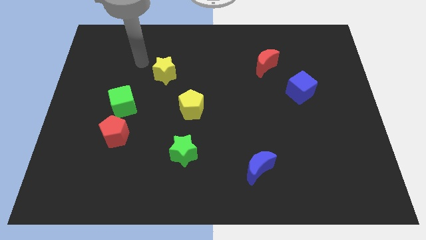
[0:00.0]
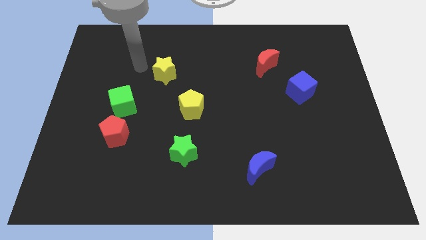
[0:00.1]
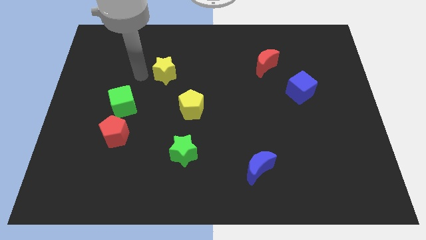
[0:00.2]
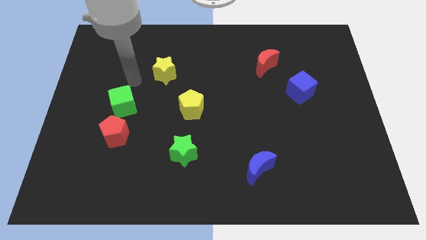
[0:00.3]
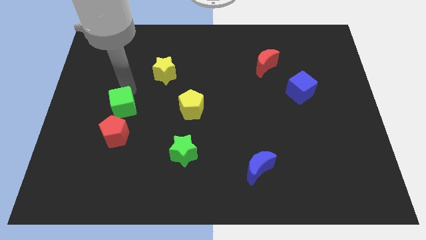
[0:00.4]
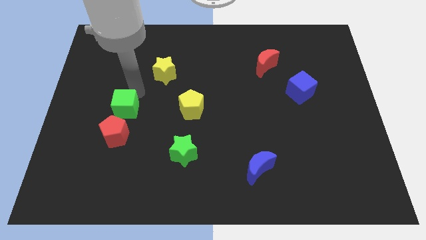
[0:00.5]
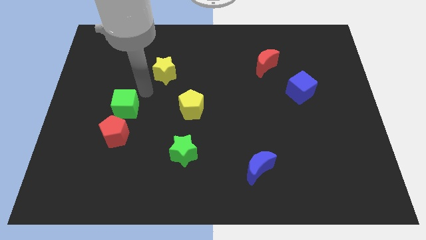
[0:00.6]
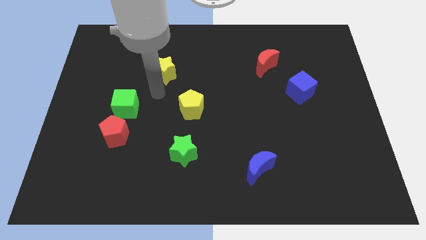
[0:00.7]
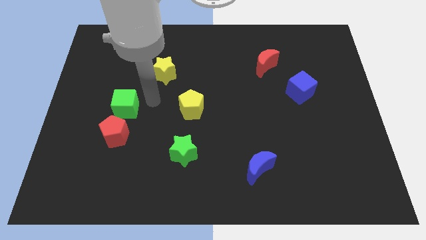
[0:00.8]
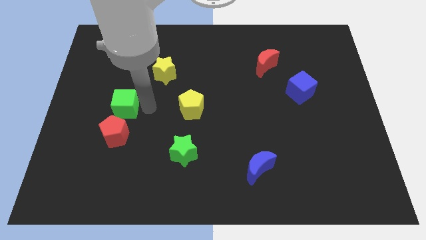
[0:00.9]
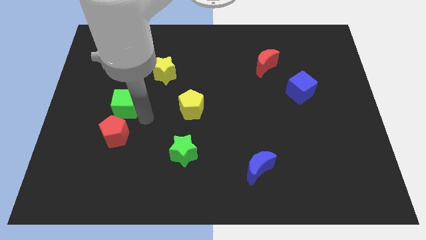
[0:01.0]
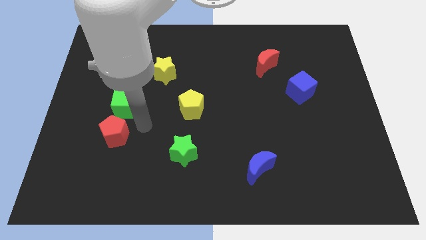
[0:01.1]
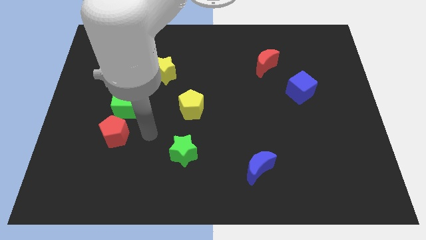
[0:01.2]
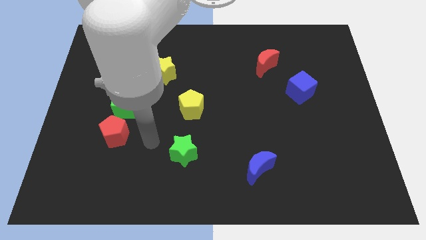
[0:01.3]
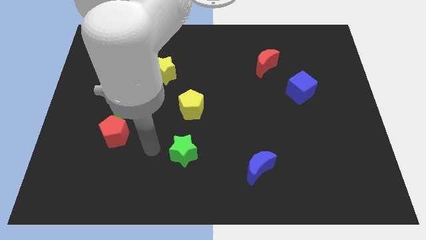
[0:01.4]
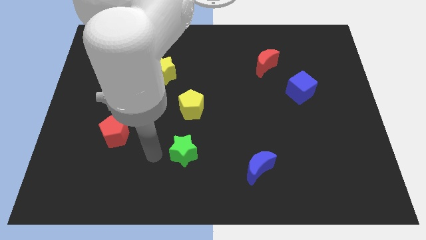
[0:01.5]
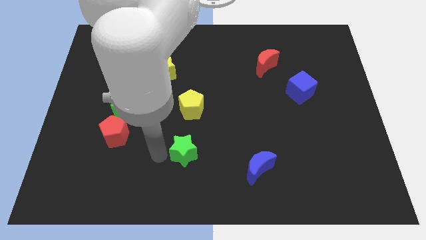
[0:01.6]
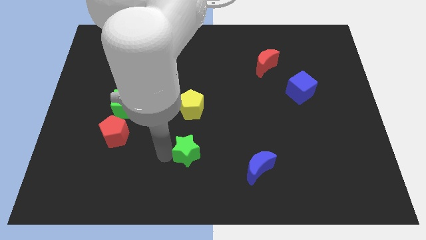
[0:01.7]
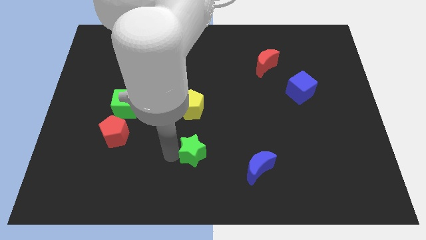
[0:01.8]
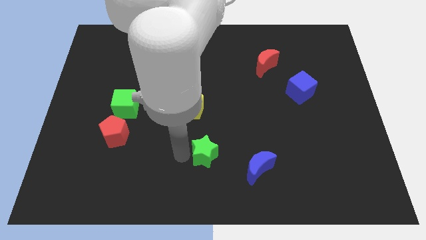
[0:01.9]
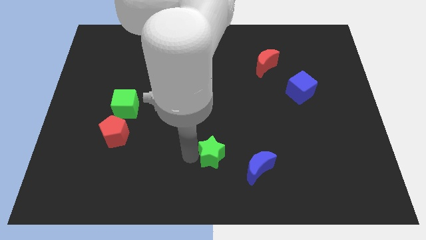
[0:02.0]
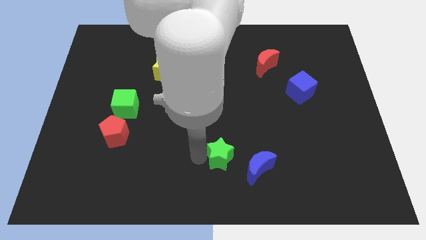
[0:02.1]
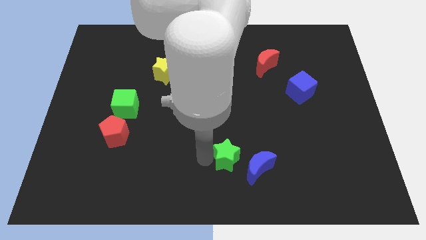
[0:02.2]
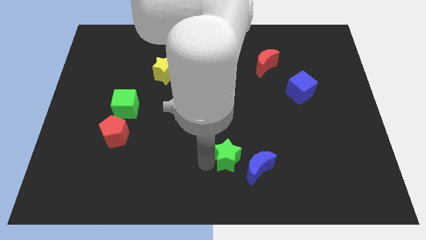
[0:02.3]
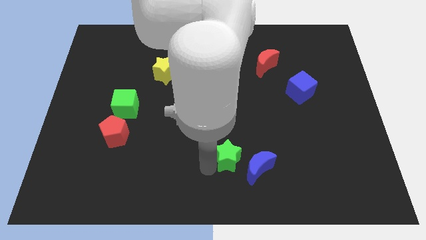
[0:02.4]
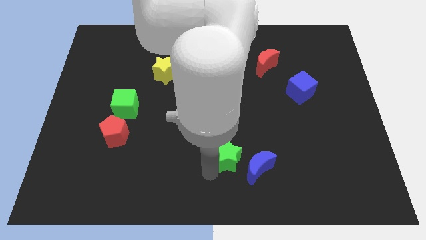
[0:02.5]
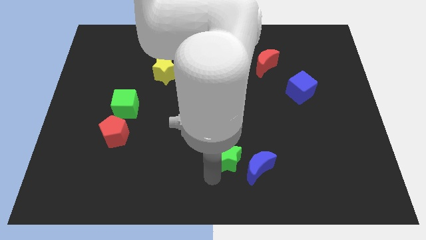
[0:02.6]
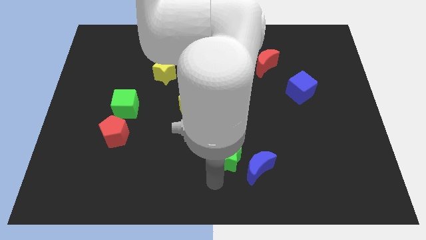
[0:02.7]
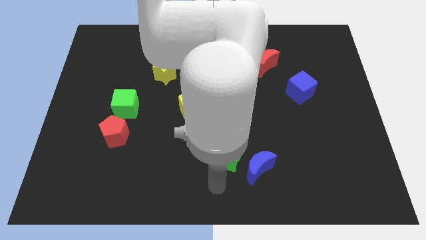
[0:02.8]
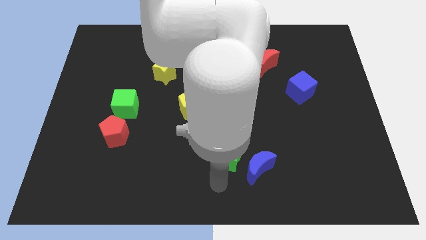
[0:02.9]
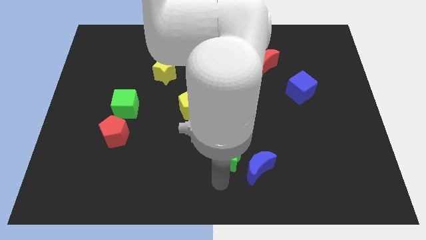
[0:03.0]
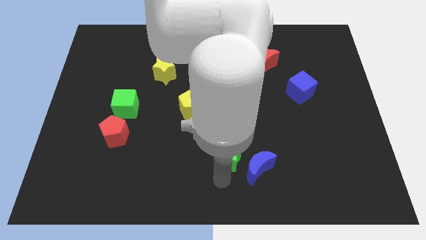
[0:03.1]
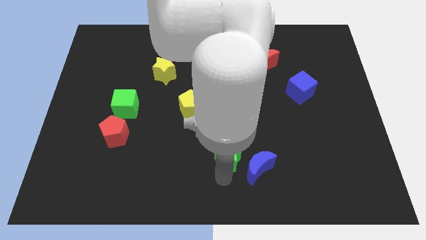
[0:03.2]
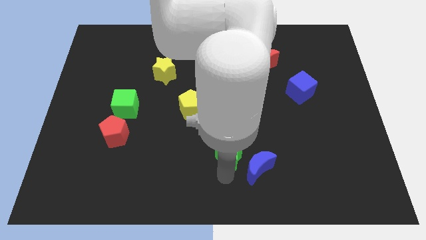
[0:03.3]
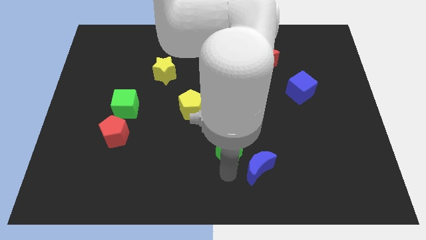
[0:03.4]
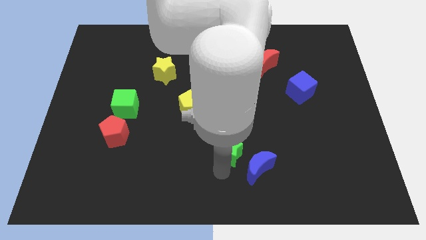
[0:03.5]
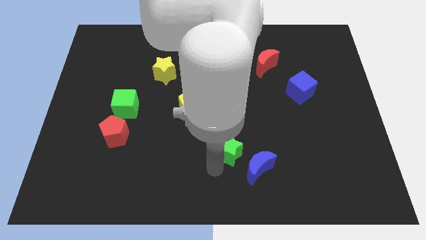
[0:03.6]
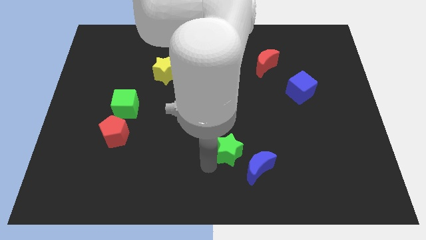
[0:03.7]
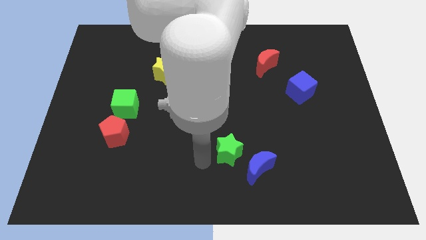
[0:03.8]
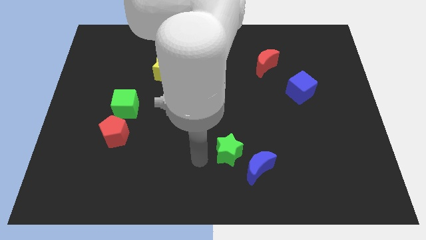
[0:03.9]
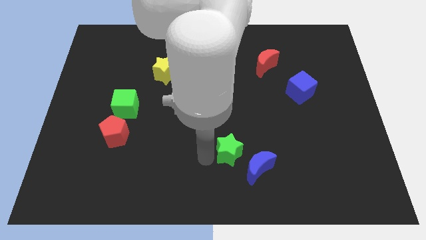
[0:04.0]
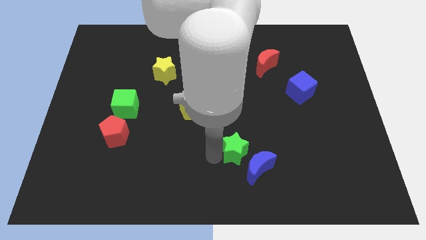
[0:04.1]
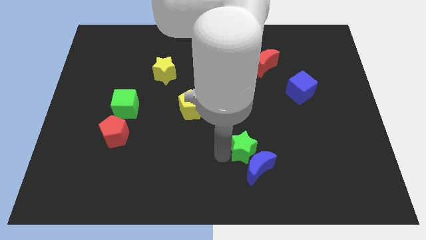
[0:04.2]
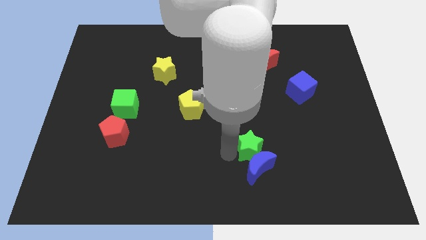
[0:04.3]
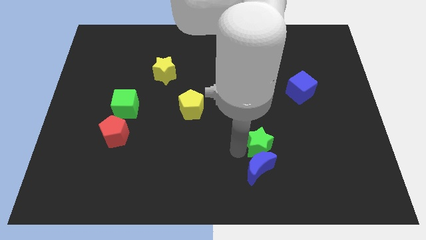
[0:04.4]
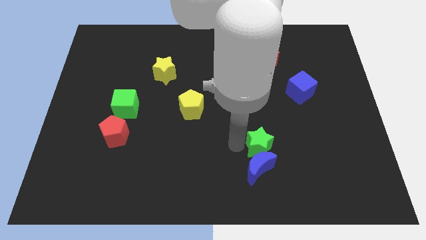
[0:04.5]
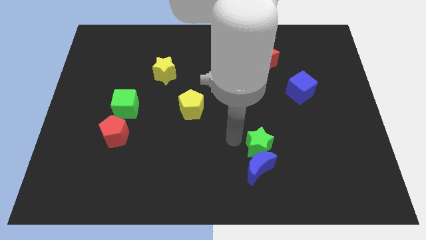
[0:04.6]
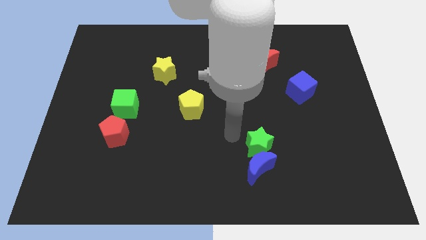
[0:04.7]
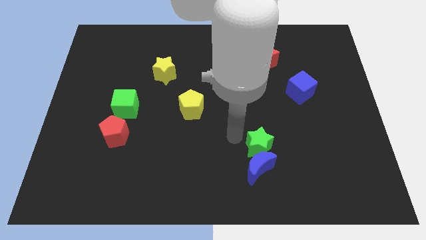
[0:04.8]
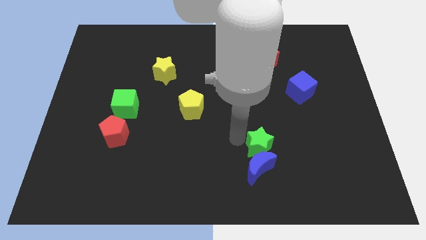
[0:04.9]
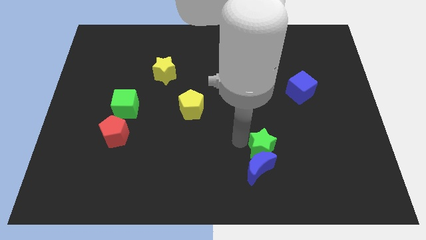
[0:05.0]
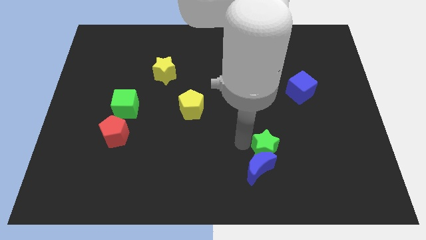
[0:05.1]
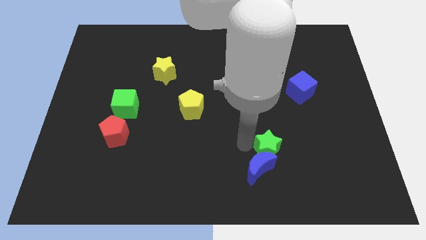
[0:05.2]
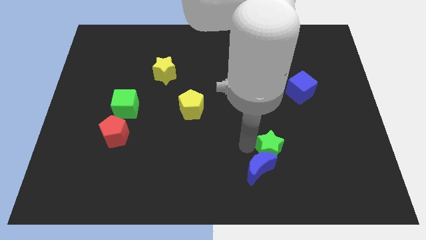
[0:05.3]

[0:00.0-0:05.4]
push the green star to the right side of the blue moon

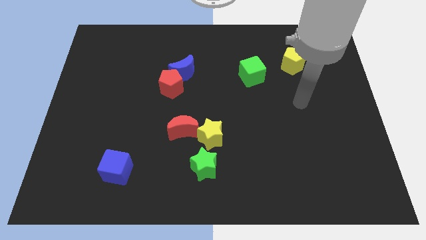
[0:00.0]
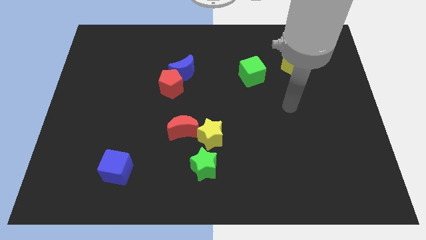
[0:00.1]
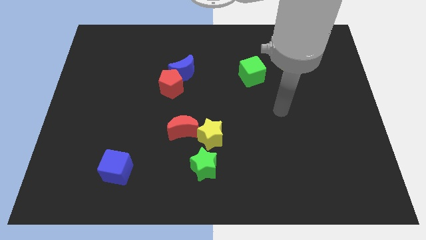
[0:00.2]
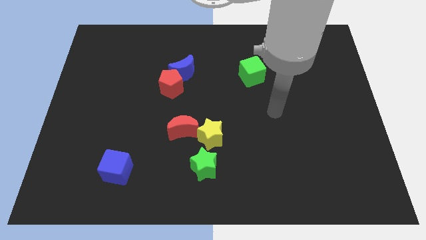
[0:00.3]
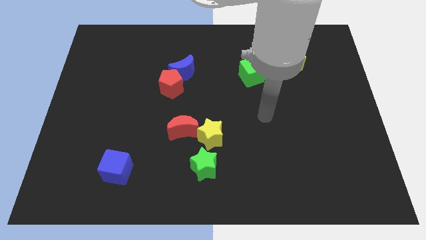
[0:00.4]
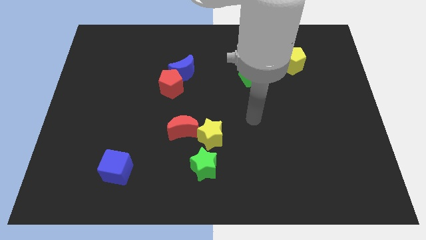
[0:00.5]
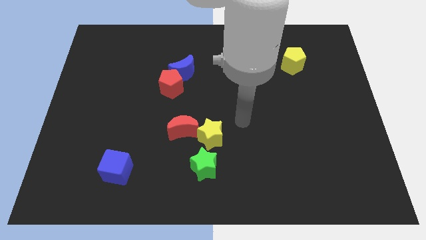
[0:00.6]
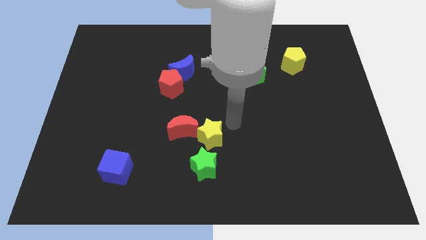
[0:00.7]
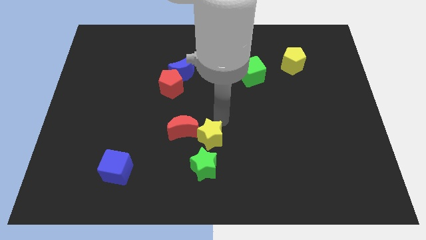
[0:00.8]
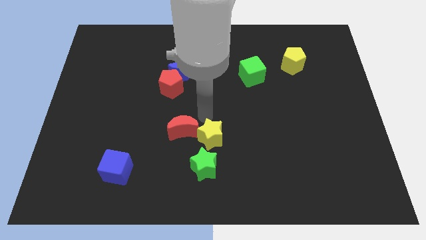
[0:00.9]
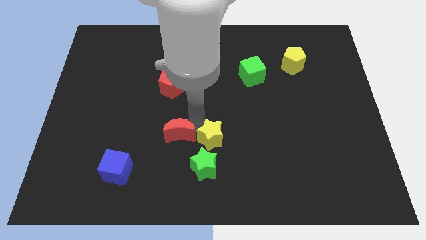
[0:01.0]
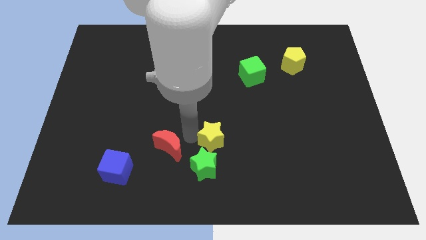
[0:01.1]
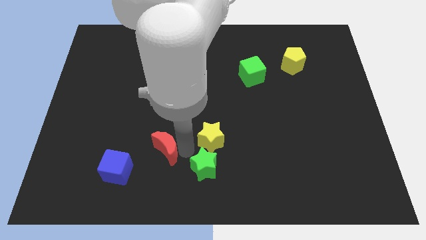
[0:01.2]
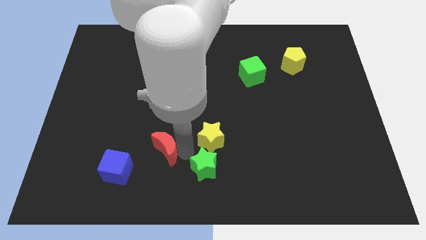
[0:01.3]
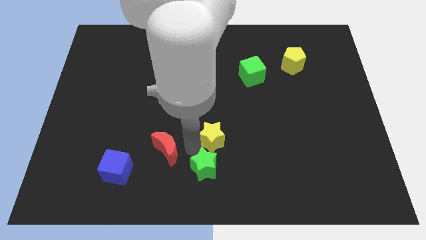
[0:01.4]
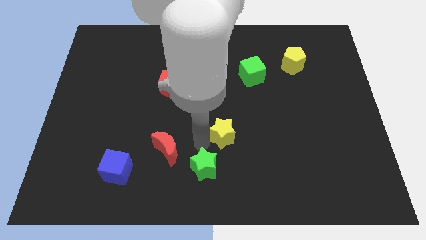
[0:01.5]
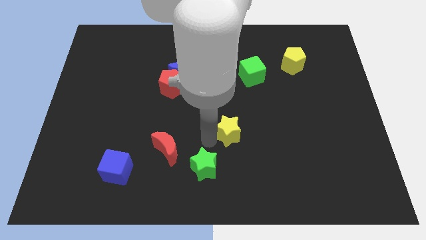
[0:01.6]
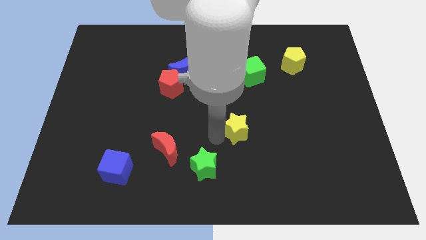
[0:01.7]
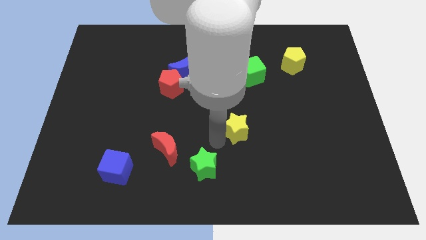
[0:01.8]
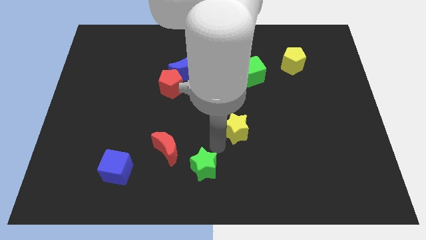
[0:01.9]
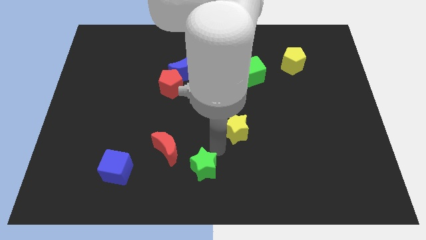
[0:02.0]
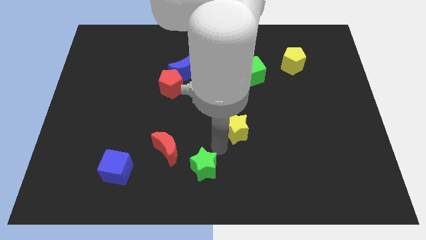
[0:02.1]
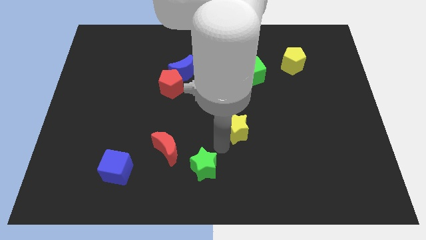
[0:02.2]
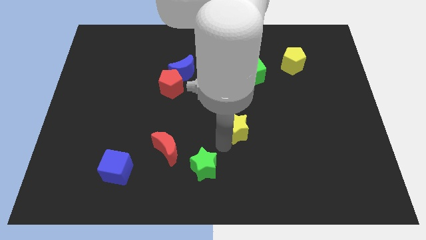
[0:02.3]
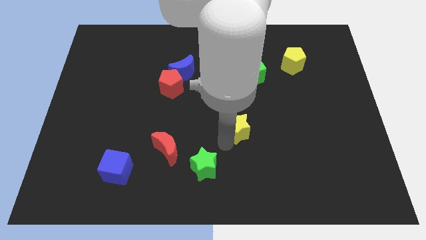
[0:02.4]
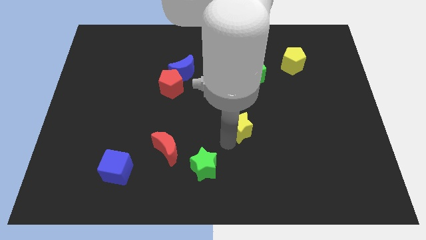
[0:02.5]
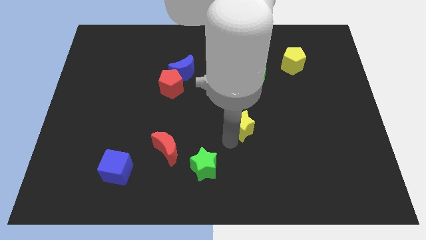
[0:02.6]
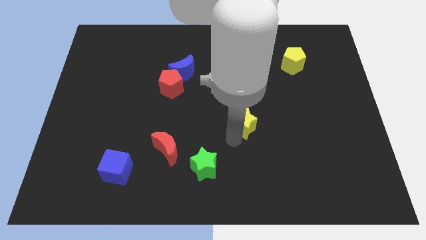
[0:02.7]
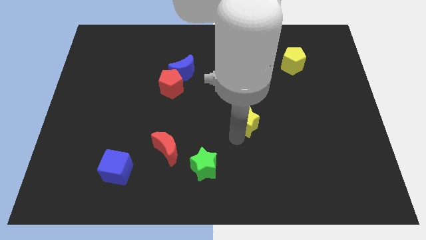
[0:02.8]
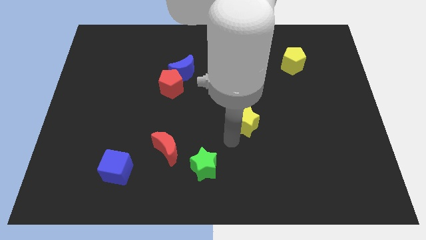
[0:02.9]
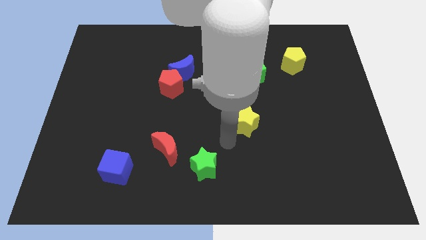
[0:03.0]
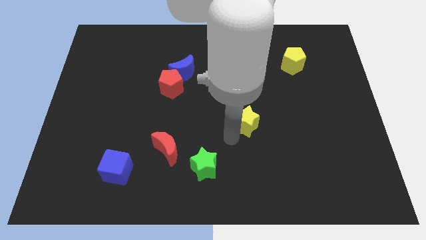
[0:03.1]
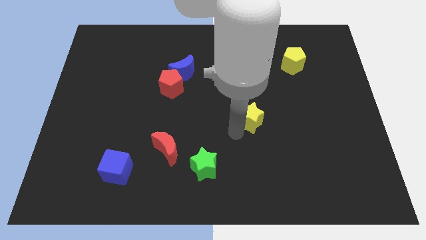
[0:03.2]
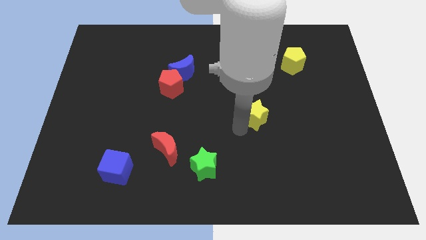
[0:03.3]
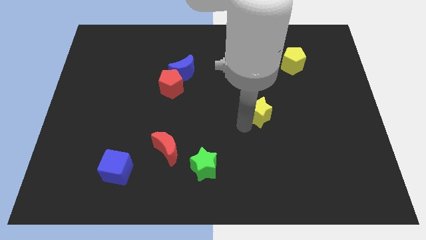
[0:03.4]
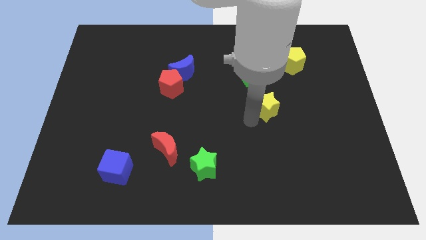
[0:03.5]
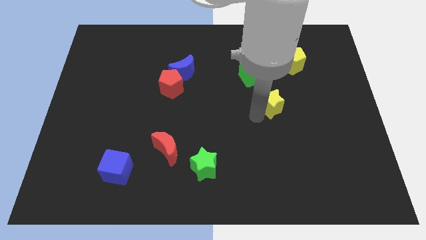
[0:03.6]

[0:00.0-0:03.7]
move the yellow star to the bottom right of the green cube
